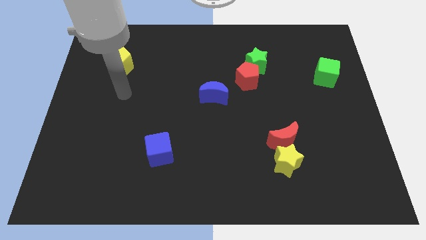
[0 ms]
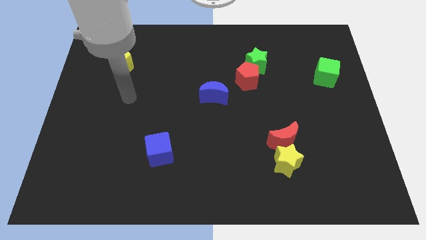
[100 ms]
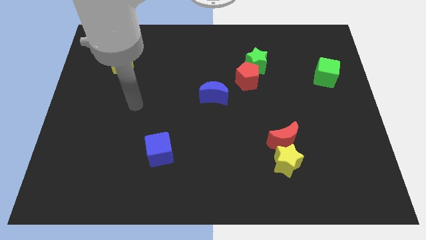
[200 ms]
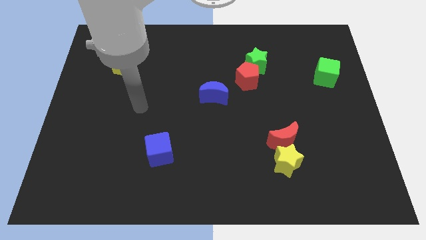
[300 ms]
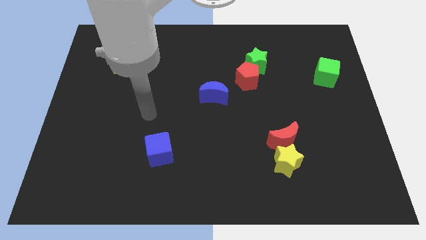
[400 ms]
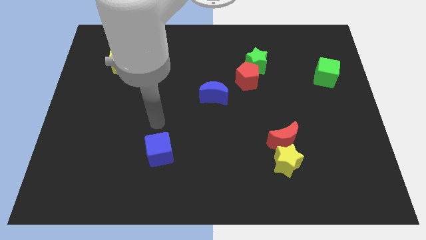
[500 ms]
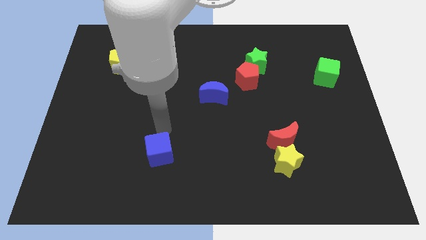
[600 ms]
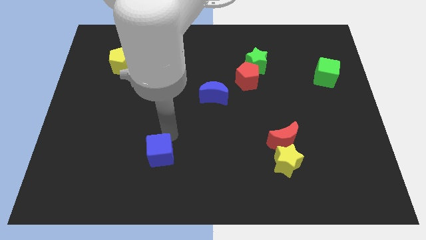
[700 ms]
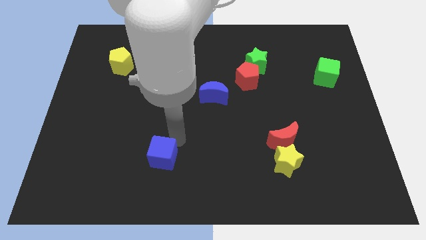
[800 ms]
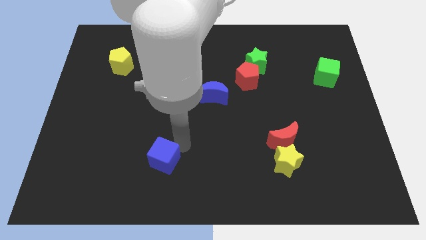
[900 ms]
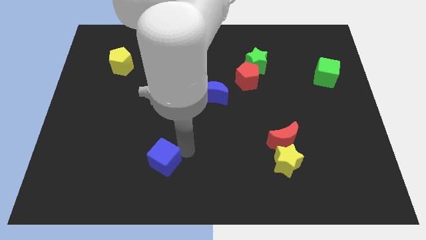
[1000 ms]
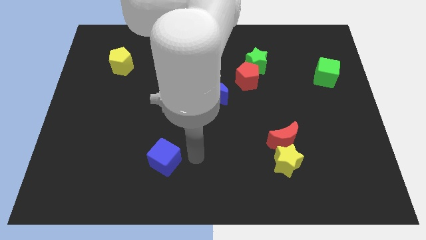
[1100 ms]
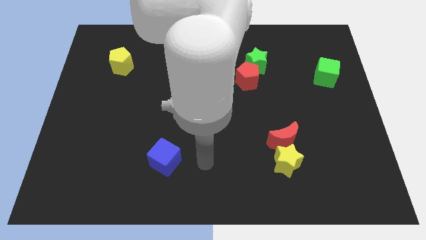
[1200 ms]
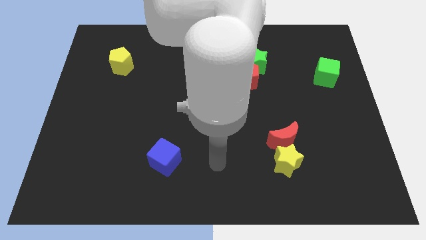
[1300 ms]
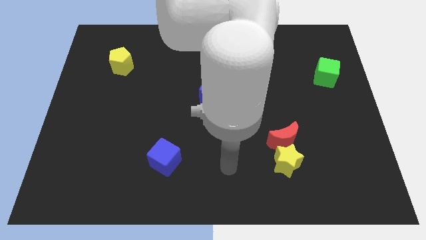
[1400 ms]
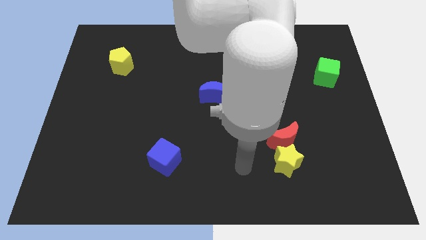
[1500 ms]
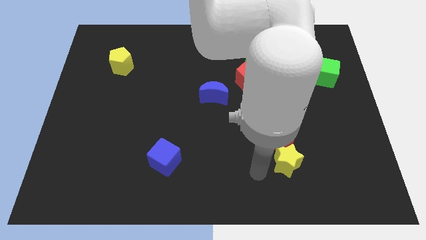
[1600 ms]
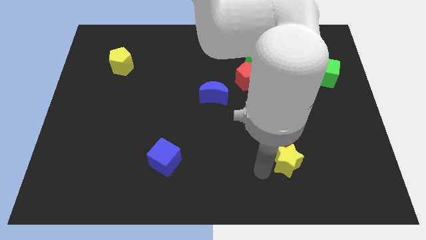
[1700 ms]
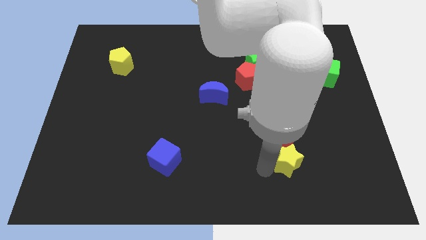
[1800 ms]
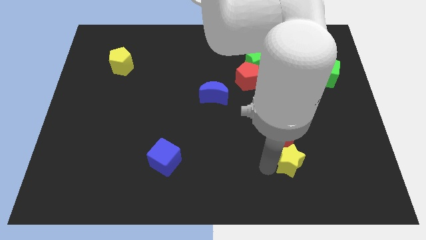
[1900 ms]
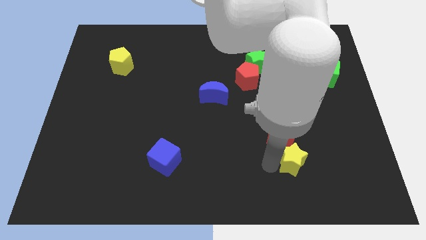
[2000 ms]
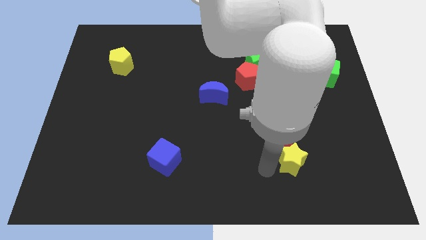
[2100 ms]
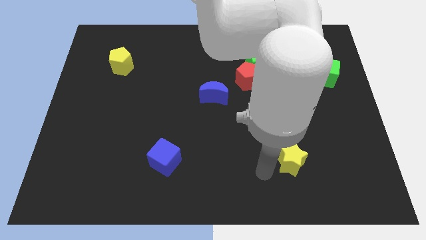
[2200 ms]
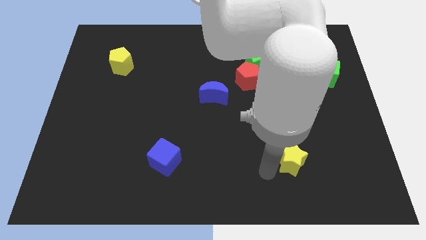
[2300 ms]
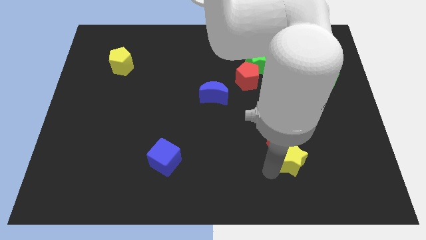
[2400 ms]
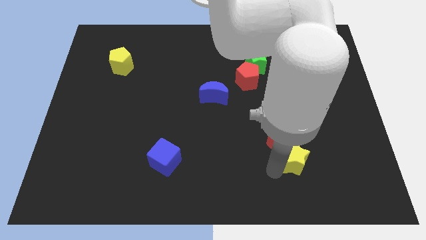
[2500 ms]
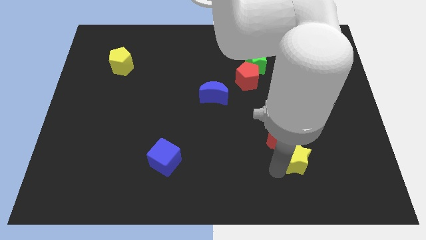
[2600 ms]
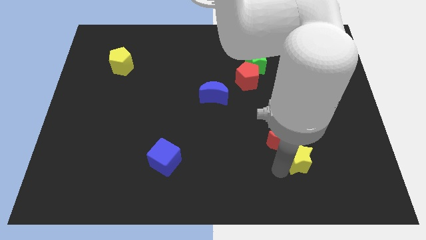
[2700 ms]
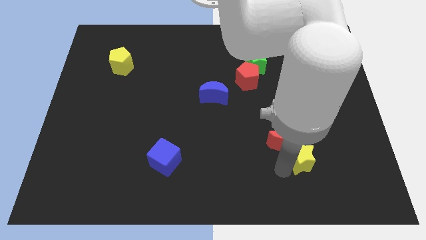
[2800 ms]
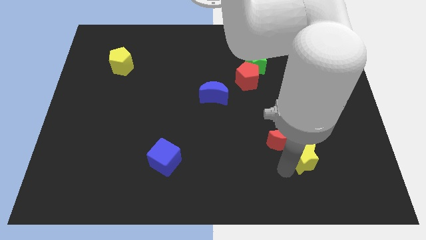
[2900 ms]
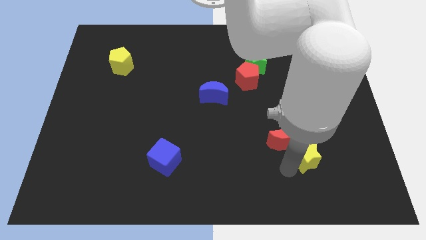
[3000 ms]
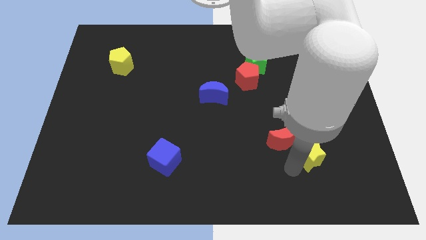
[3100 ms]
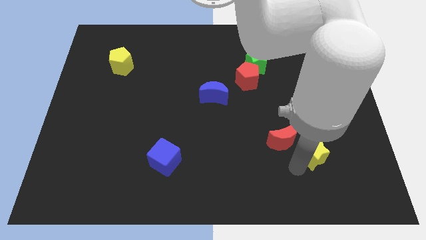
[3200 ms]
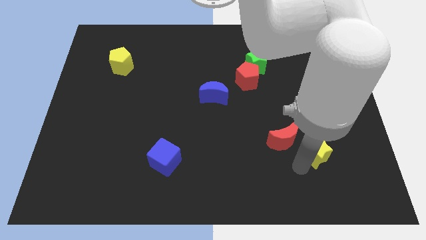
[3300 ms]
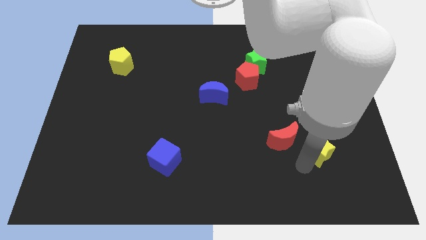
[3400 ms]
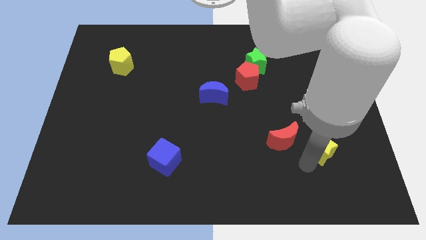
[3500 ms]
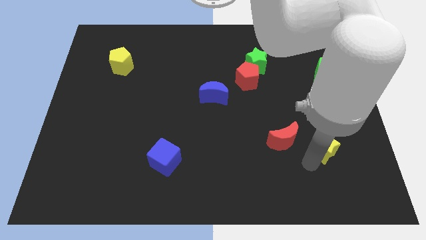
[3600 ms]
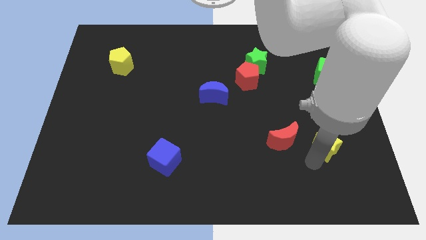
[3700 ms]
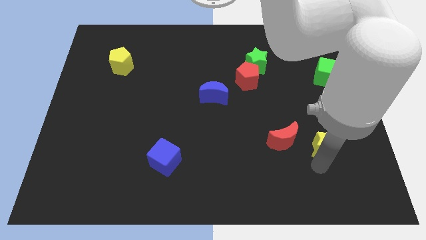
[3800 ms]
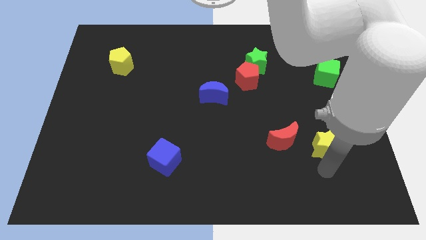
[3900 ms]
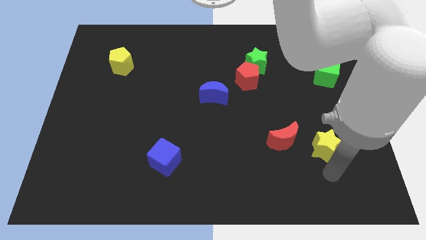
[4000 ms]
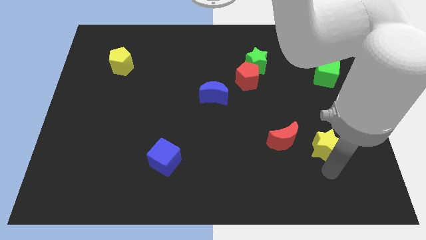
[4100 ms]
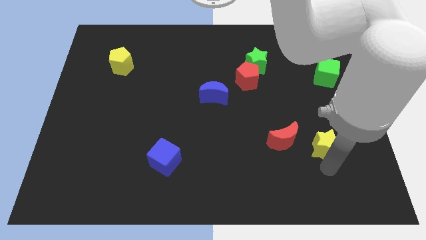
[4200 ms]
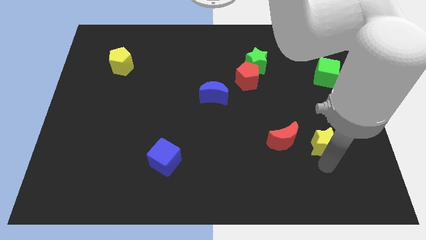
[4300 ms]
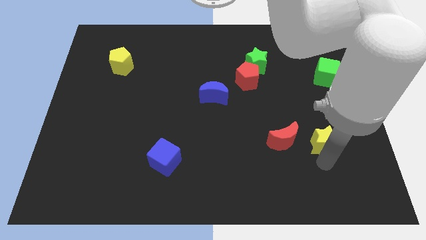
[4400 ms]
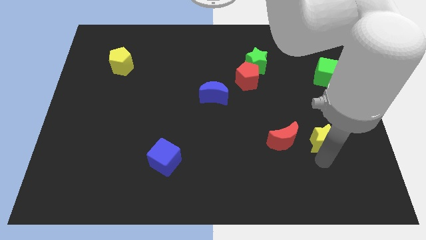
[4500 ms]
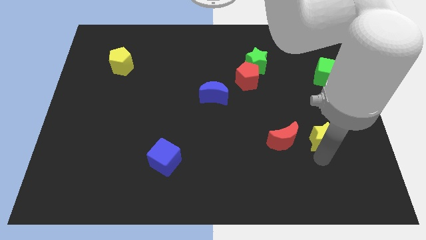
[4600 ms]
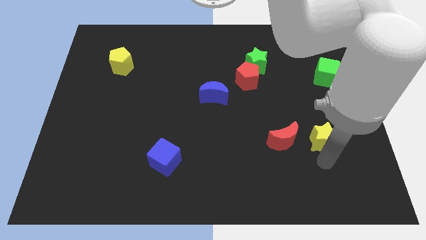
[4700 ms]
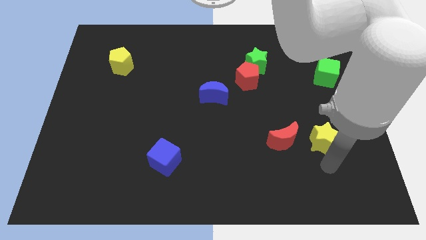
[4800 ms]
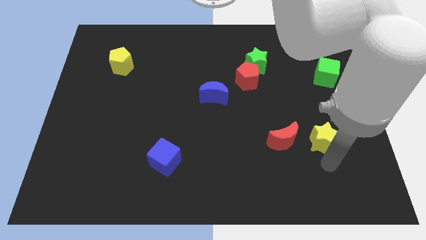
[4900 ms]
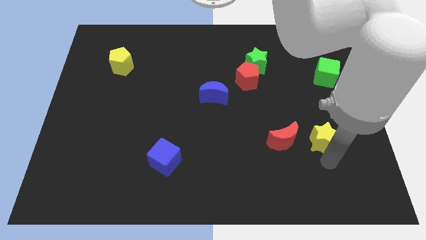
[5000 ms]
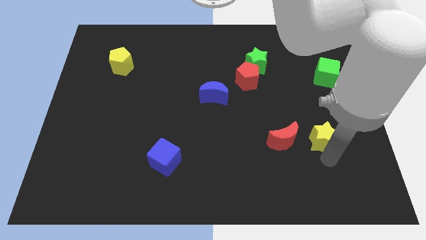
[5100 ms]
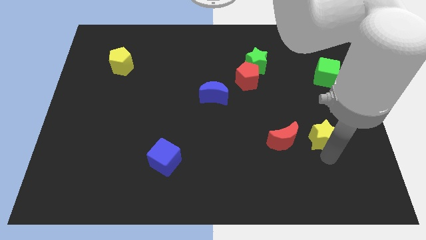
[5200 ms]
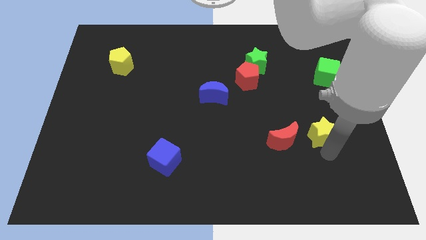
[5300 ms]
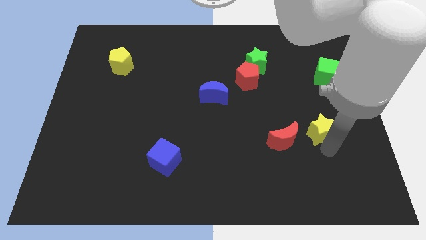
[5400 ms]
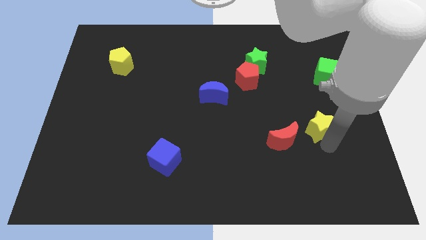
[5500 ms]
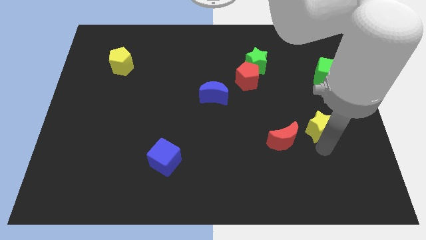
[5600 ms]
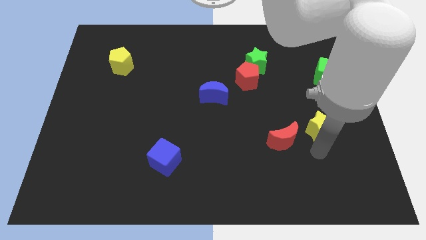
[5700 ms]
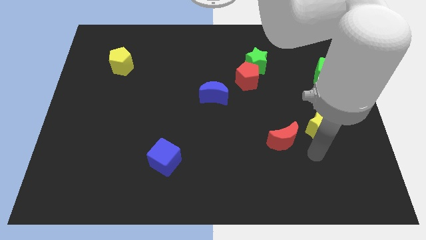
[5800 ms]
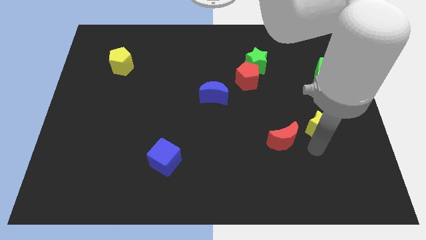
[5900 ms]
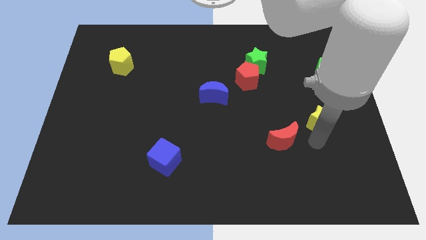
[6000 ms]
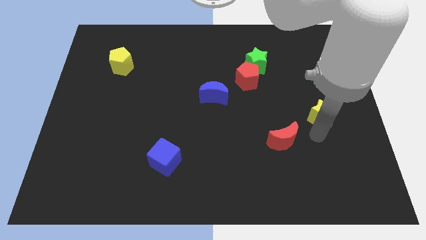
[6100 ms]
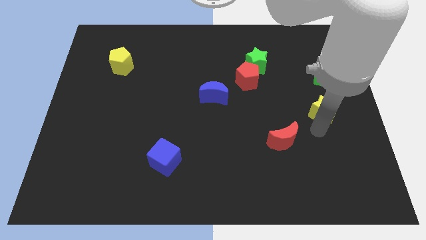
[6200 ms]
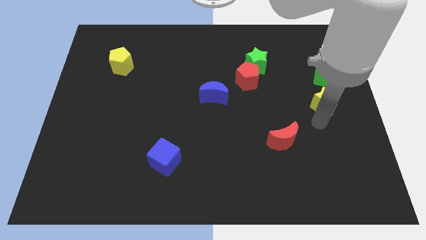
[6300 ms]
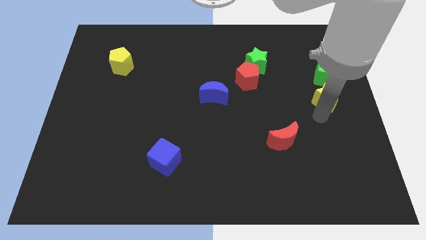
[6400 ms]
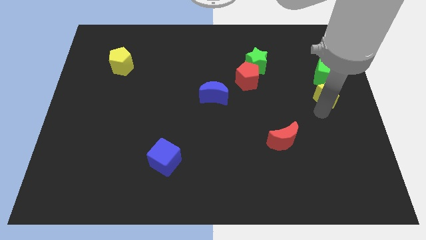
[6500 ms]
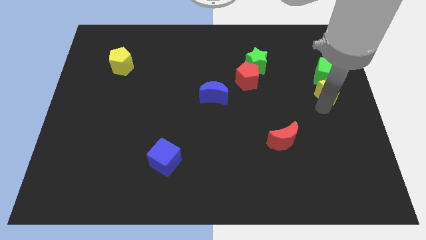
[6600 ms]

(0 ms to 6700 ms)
put the yellow star towards the green cube

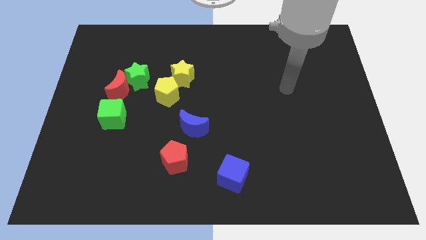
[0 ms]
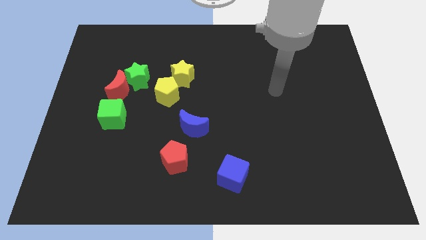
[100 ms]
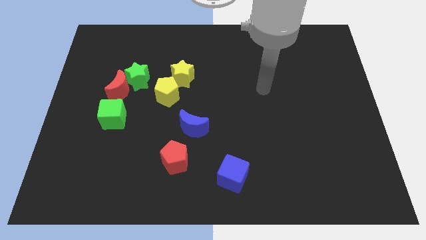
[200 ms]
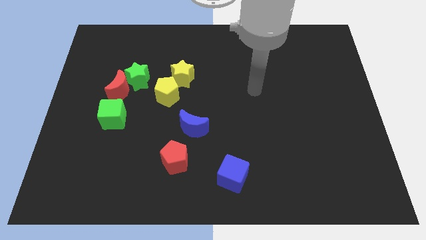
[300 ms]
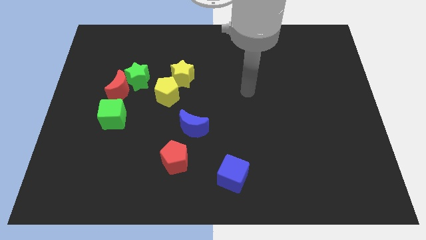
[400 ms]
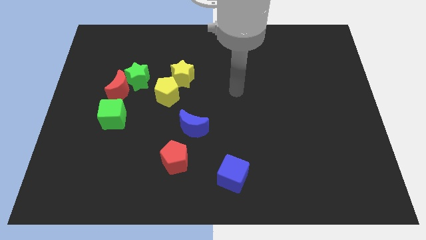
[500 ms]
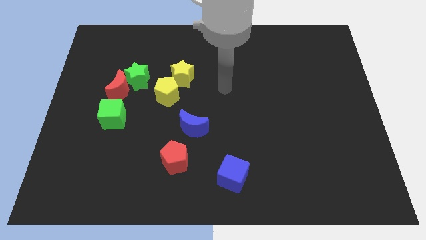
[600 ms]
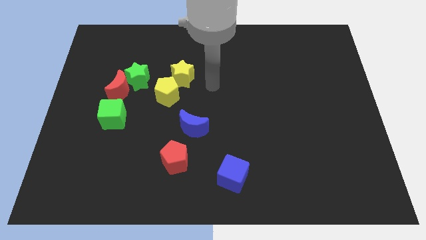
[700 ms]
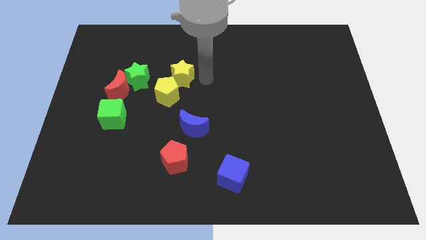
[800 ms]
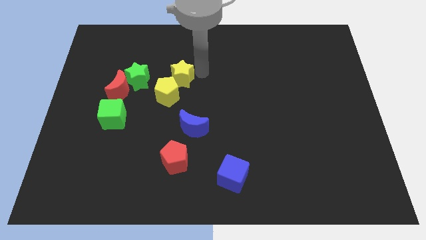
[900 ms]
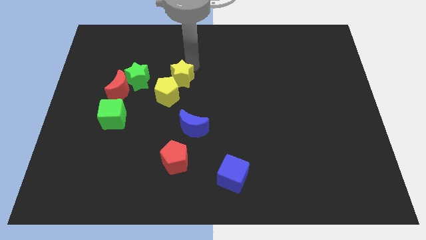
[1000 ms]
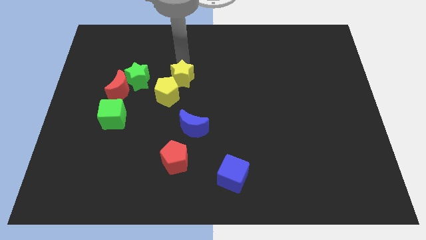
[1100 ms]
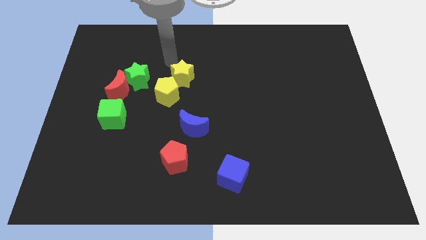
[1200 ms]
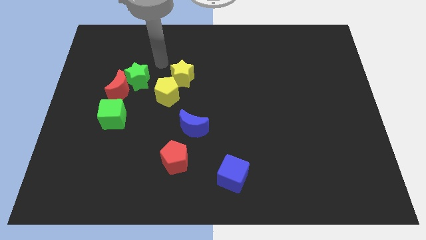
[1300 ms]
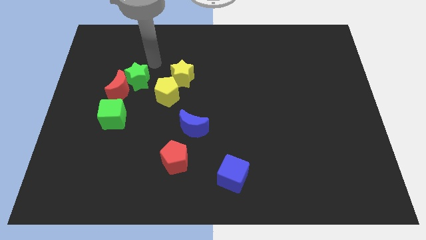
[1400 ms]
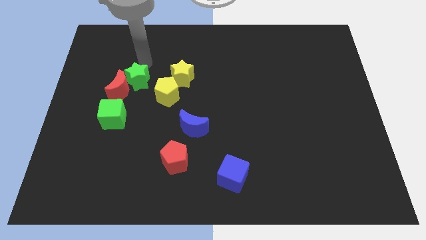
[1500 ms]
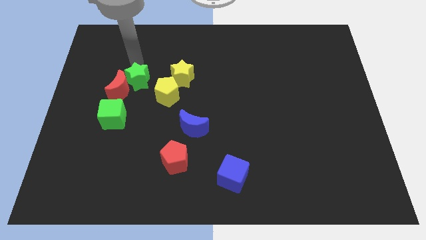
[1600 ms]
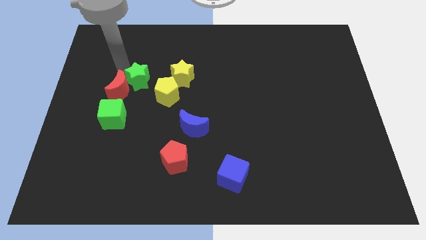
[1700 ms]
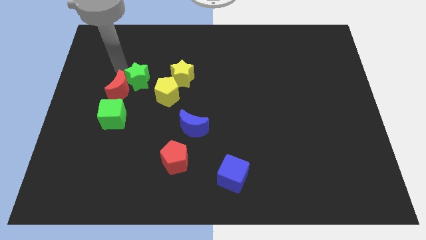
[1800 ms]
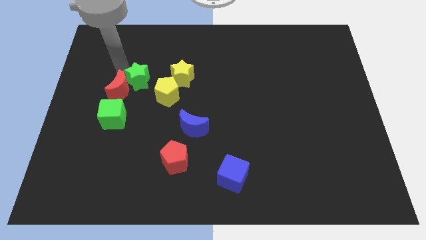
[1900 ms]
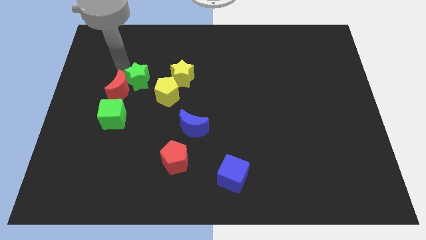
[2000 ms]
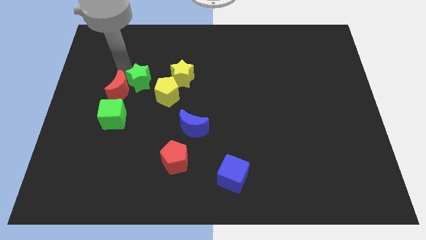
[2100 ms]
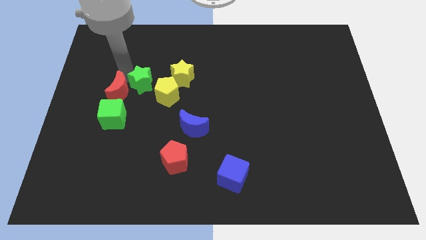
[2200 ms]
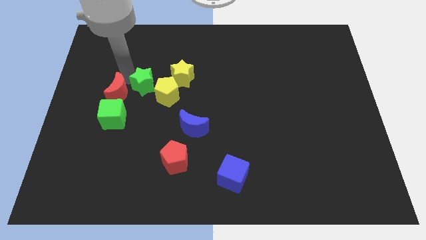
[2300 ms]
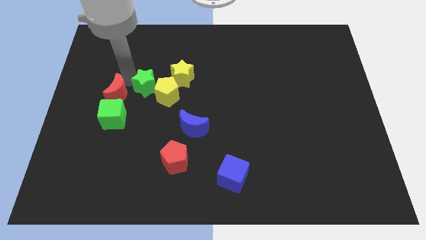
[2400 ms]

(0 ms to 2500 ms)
slide the green star towards the yellow pentagon
